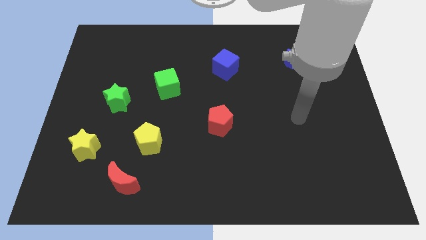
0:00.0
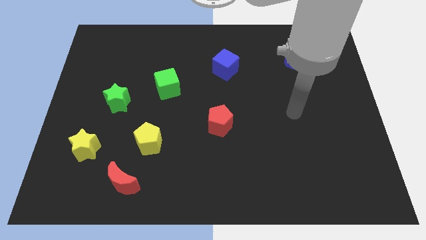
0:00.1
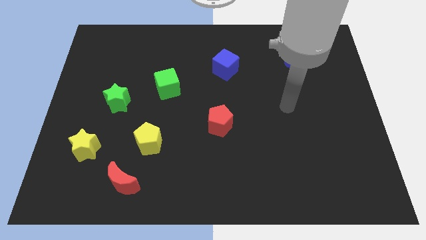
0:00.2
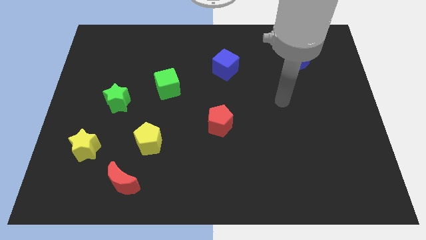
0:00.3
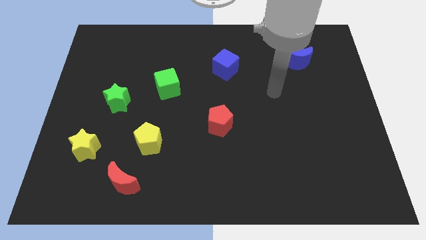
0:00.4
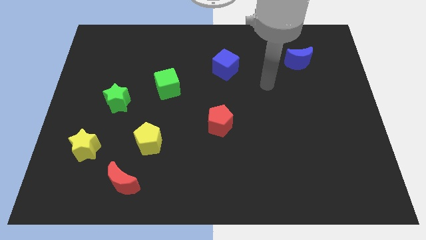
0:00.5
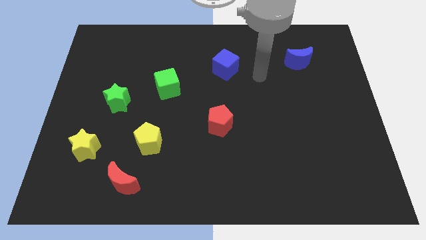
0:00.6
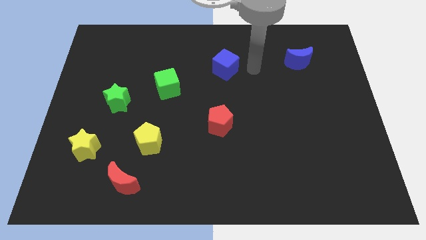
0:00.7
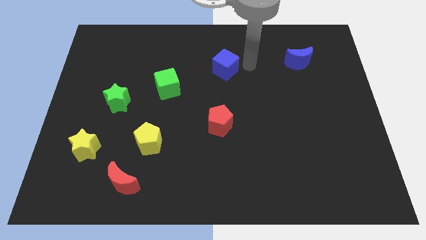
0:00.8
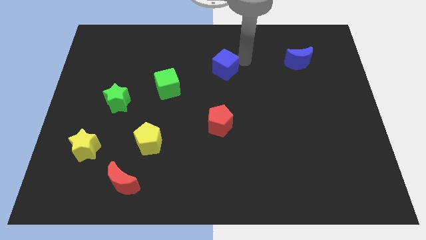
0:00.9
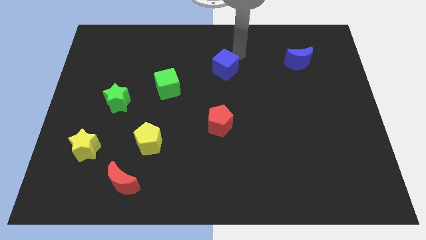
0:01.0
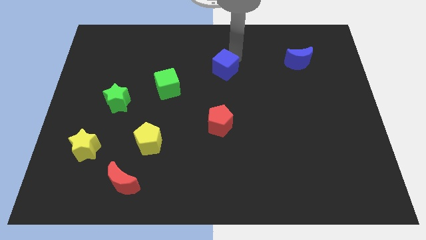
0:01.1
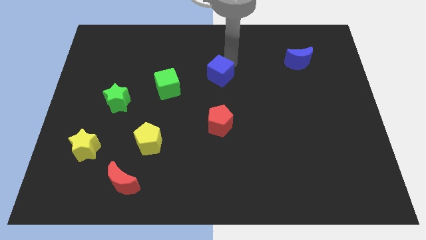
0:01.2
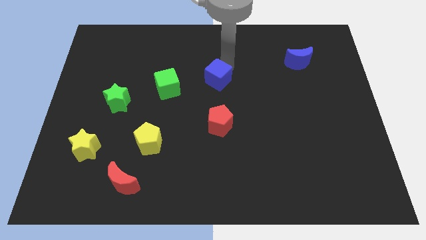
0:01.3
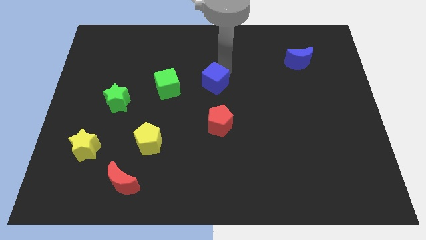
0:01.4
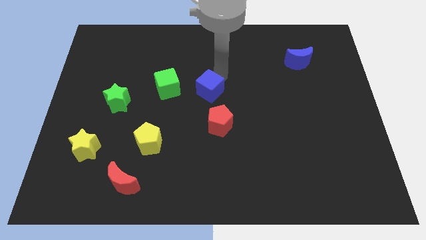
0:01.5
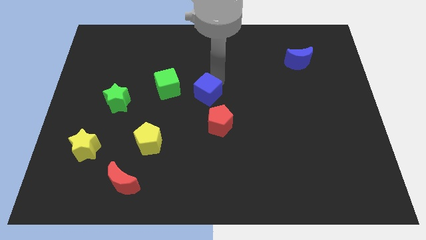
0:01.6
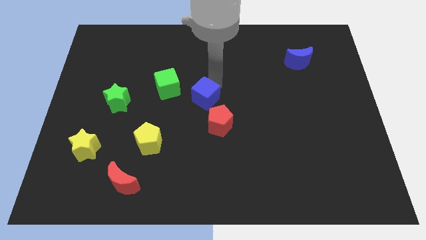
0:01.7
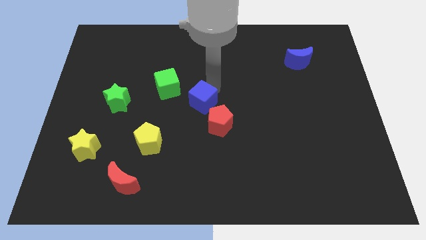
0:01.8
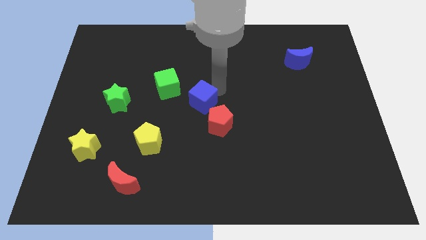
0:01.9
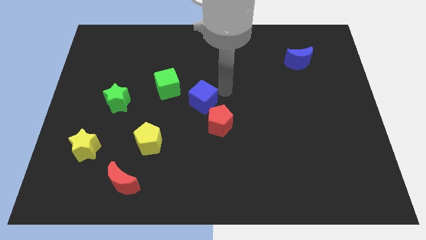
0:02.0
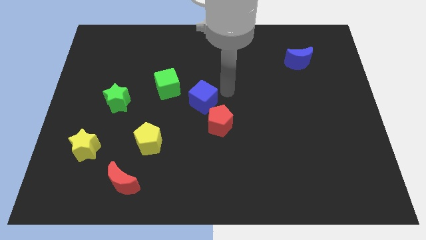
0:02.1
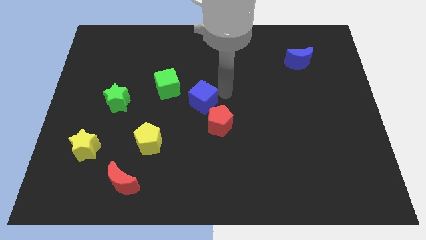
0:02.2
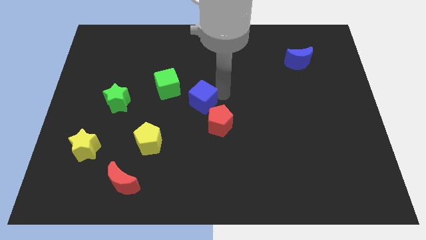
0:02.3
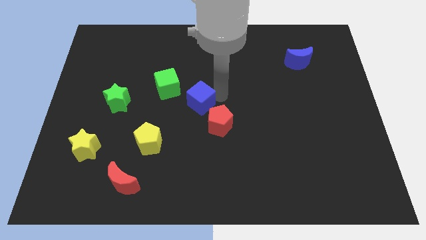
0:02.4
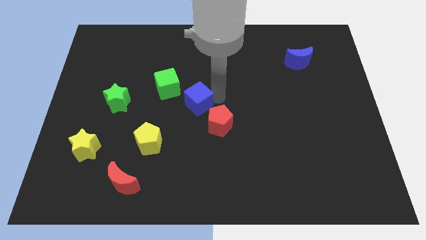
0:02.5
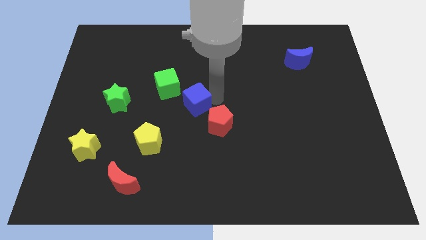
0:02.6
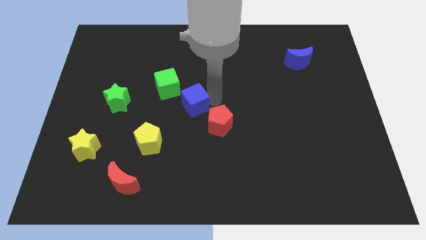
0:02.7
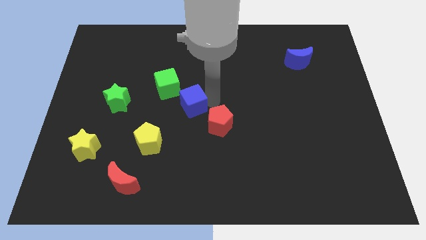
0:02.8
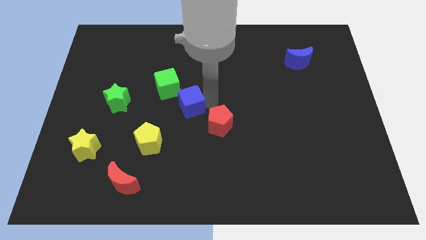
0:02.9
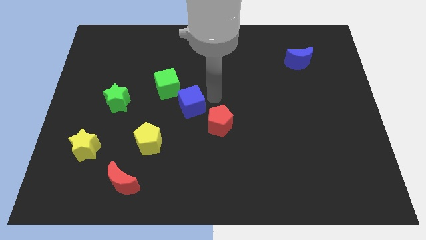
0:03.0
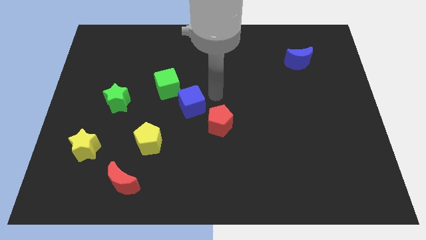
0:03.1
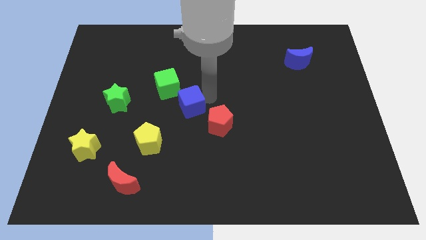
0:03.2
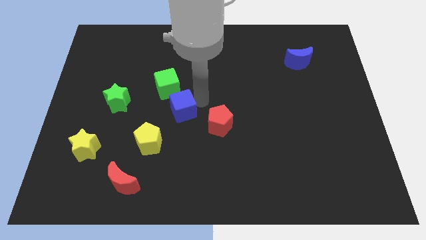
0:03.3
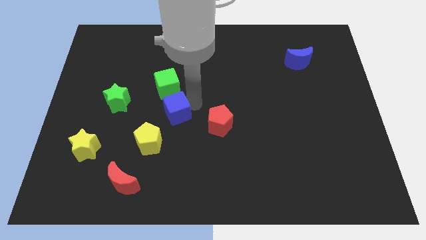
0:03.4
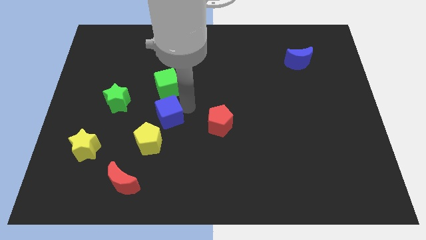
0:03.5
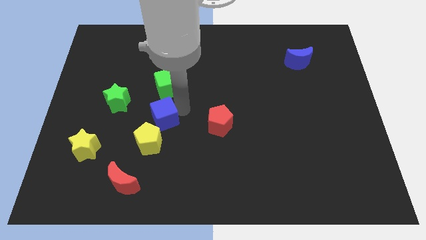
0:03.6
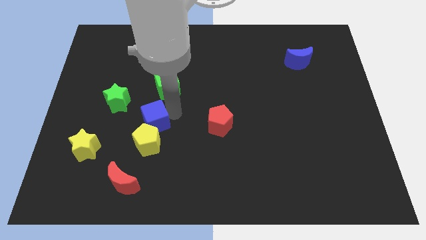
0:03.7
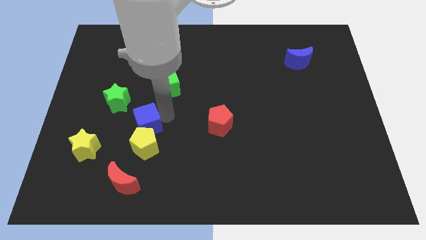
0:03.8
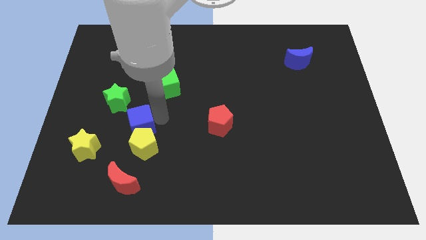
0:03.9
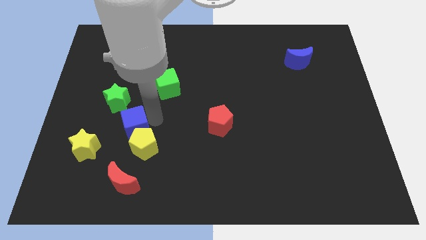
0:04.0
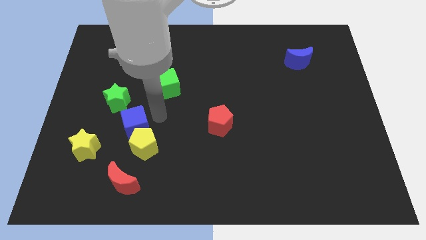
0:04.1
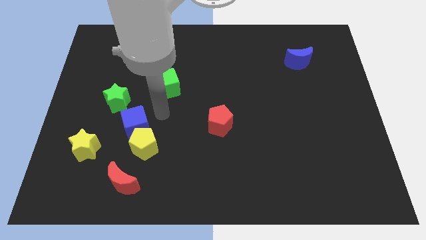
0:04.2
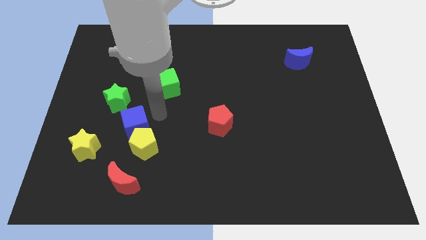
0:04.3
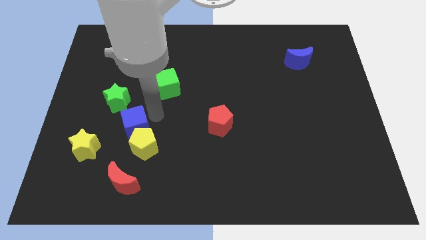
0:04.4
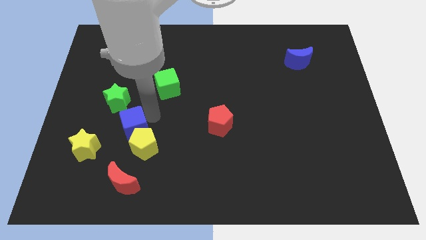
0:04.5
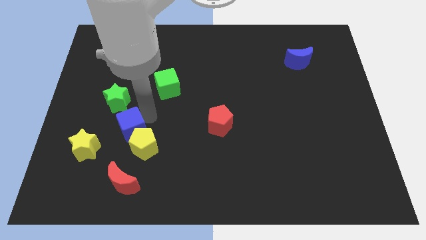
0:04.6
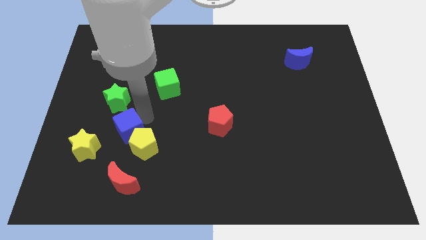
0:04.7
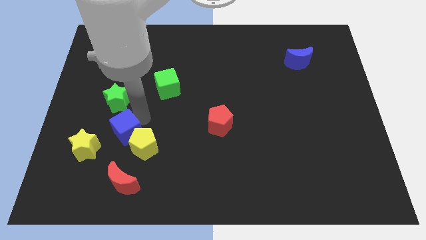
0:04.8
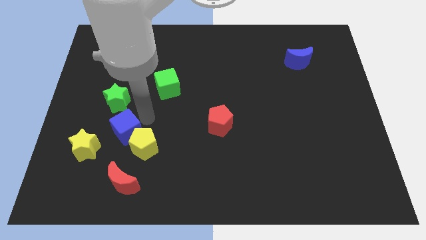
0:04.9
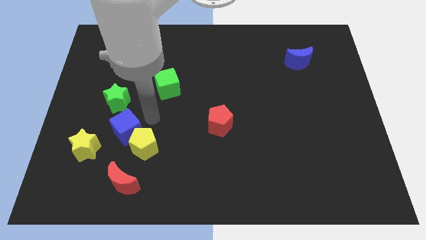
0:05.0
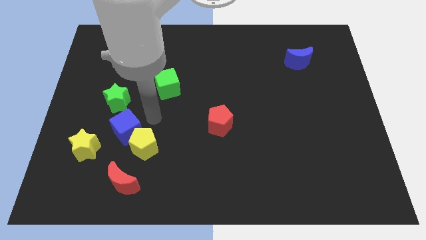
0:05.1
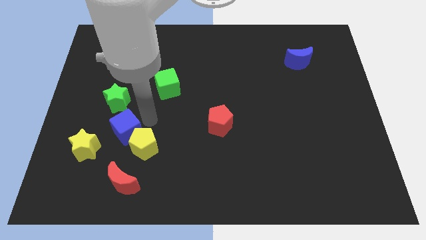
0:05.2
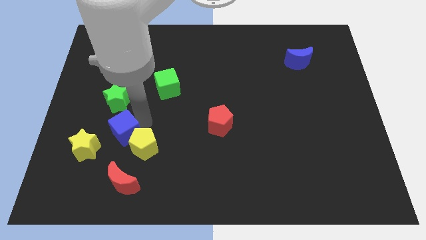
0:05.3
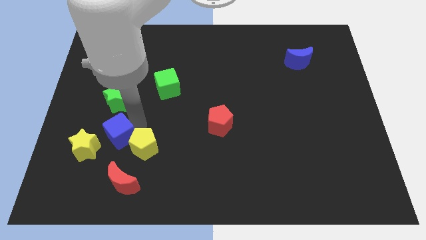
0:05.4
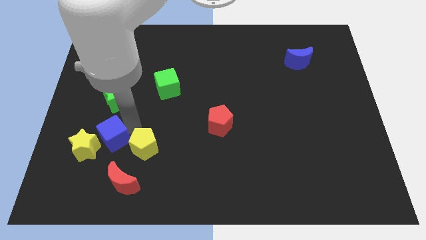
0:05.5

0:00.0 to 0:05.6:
put the blue cube close to the yellow star
